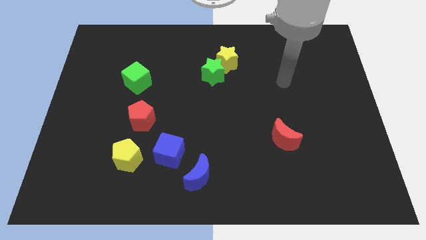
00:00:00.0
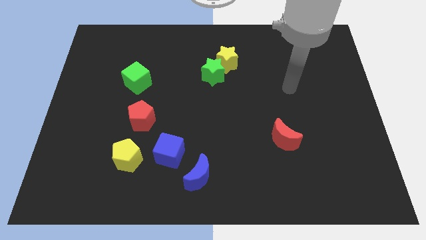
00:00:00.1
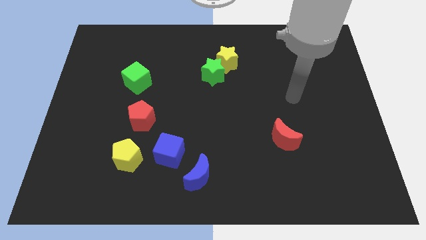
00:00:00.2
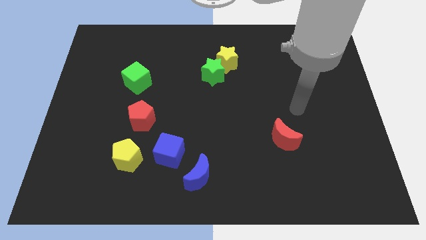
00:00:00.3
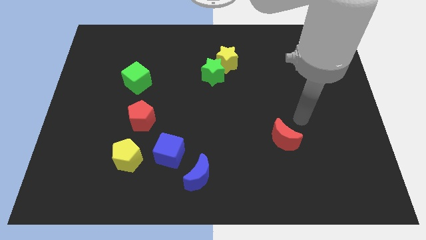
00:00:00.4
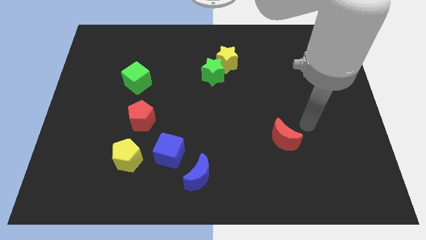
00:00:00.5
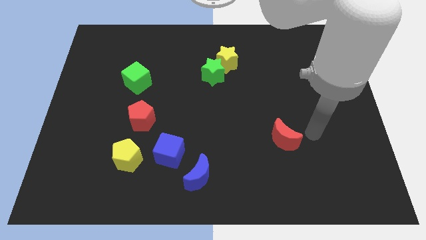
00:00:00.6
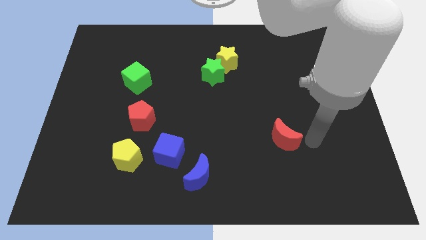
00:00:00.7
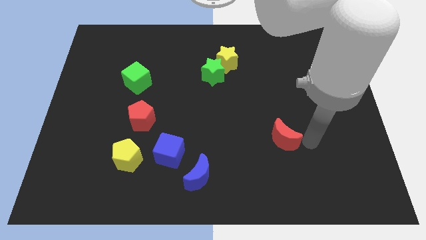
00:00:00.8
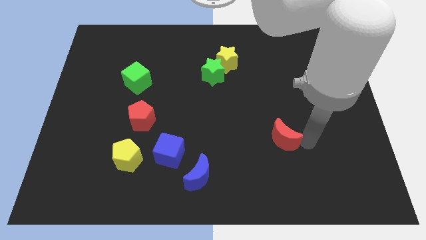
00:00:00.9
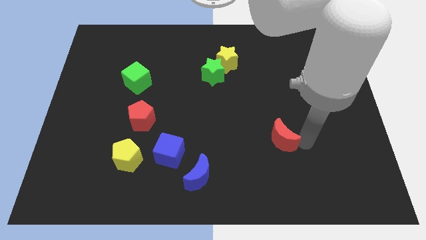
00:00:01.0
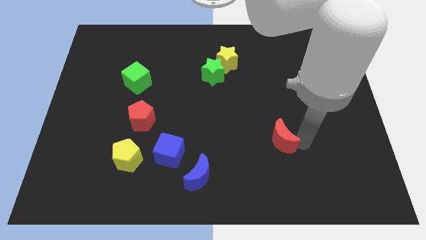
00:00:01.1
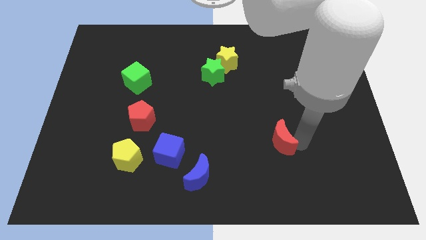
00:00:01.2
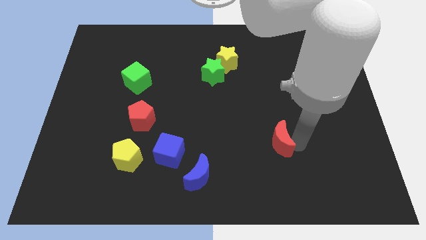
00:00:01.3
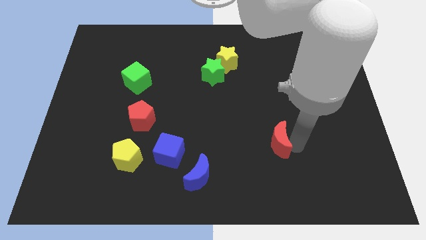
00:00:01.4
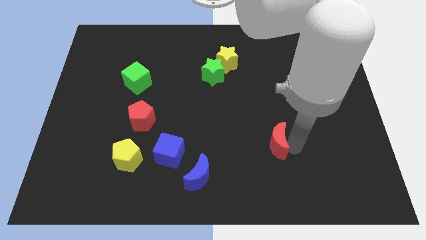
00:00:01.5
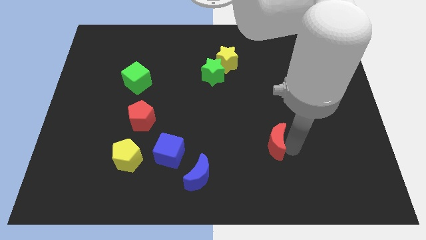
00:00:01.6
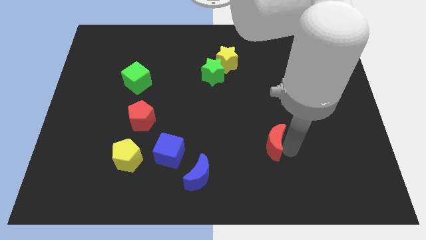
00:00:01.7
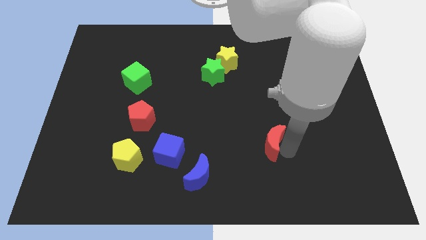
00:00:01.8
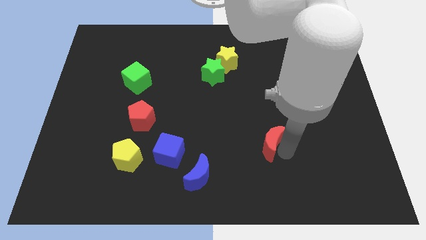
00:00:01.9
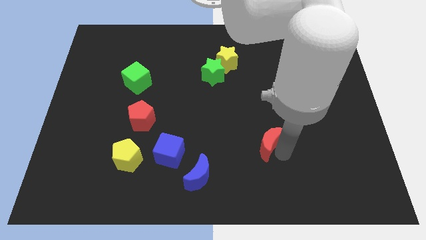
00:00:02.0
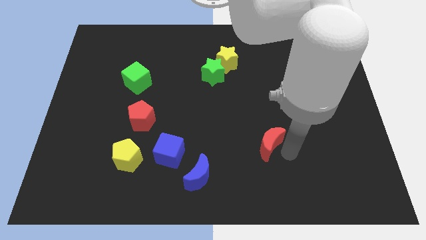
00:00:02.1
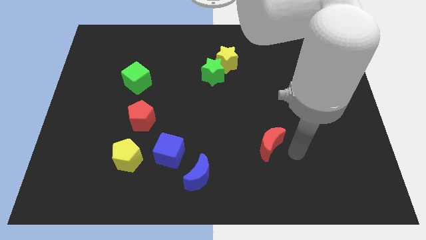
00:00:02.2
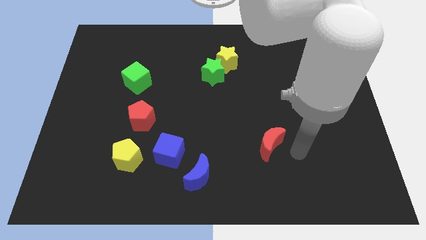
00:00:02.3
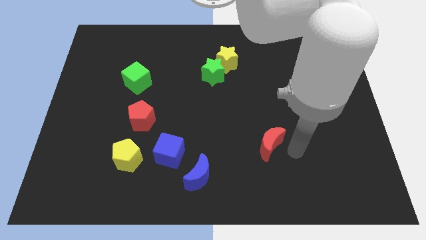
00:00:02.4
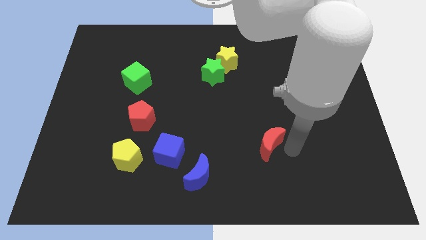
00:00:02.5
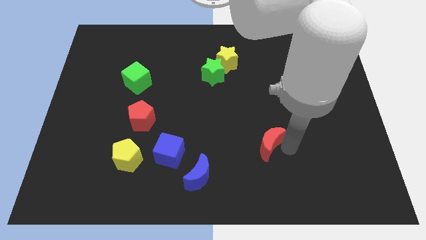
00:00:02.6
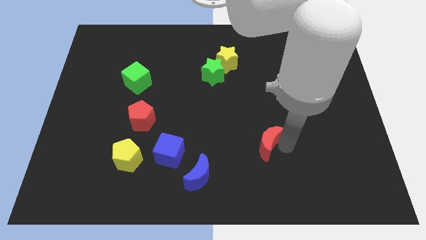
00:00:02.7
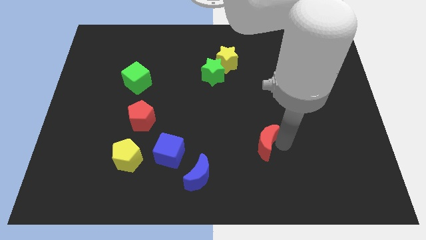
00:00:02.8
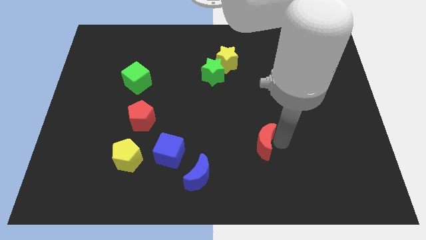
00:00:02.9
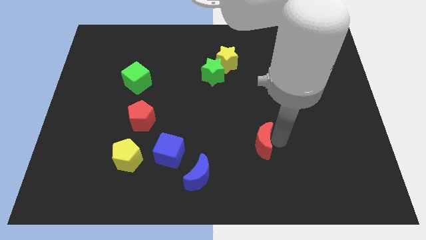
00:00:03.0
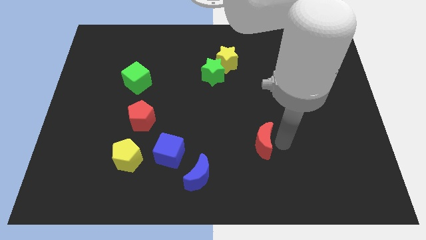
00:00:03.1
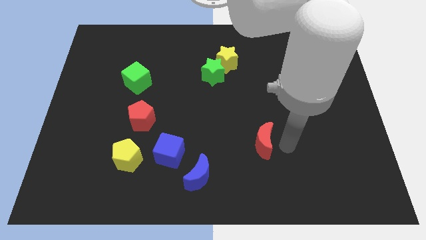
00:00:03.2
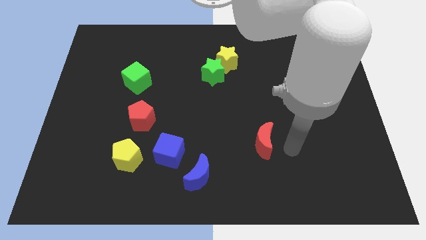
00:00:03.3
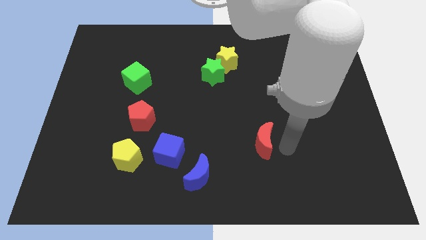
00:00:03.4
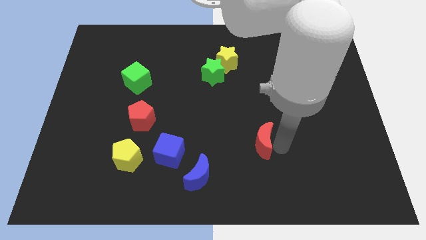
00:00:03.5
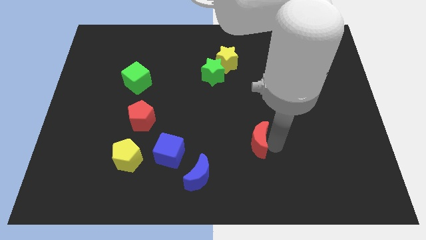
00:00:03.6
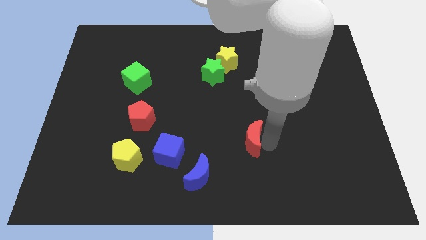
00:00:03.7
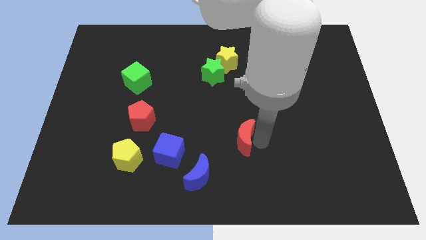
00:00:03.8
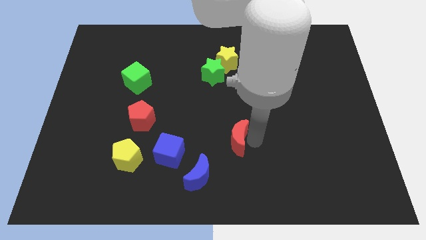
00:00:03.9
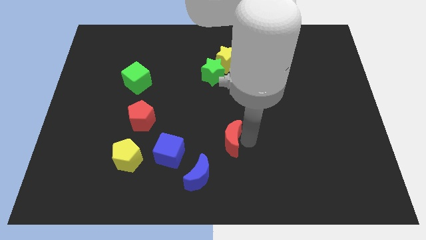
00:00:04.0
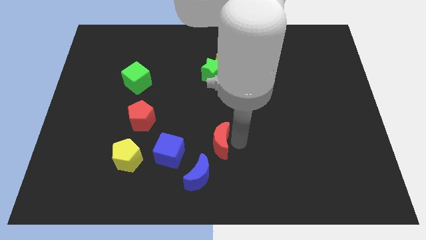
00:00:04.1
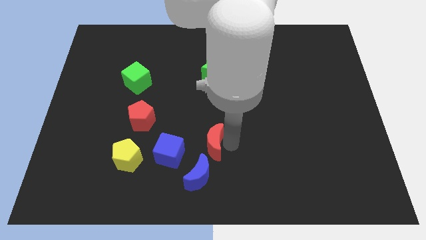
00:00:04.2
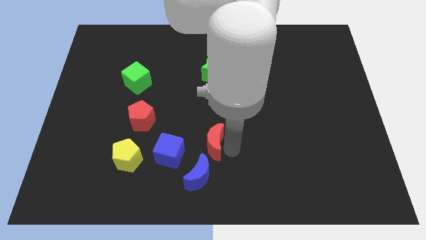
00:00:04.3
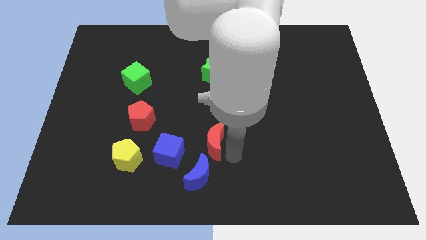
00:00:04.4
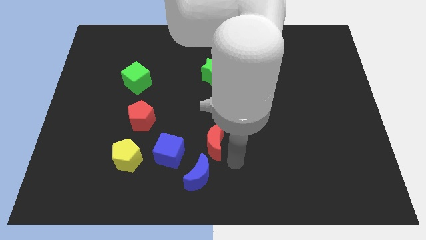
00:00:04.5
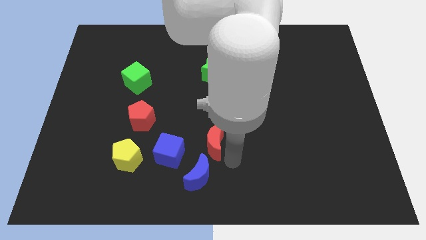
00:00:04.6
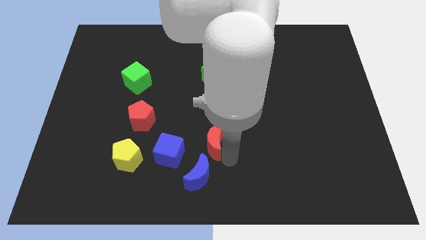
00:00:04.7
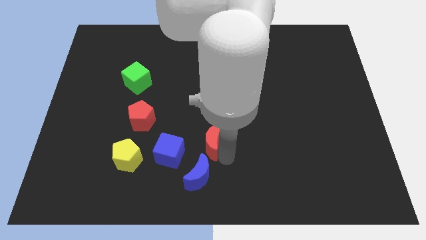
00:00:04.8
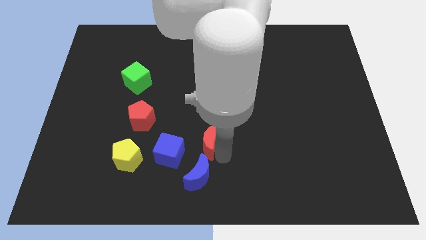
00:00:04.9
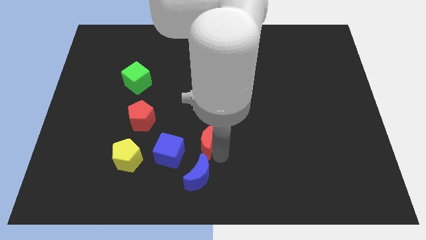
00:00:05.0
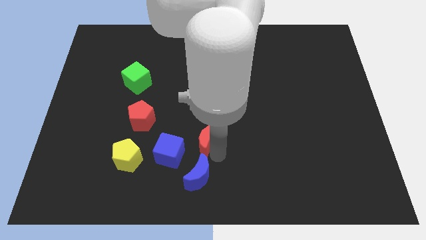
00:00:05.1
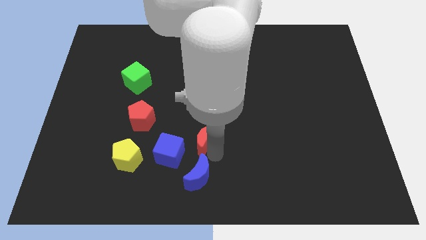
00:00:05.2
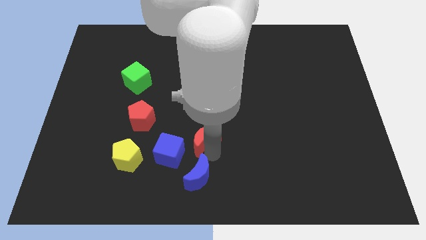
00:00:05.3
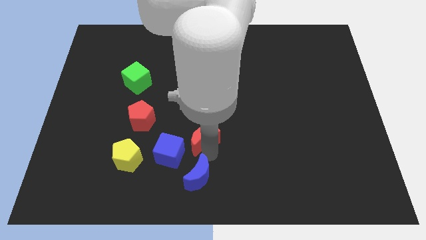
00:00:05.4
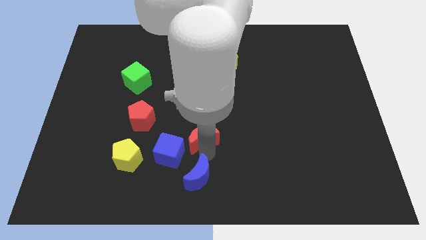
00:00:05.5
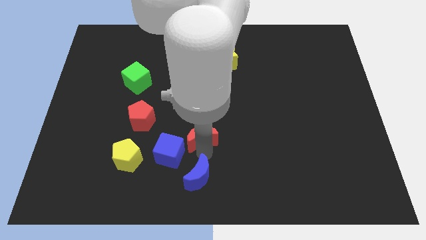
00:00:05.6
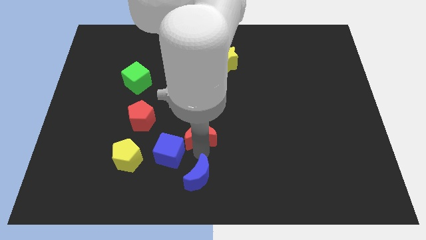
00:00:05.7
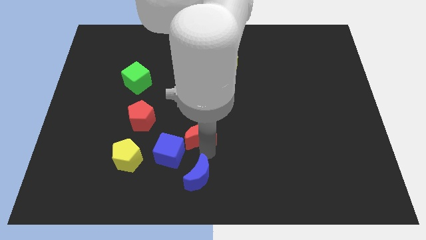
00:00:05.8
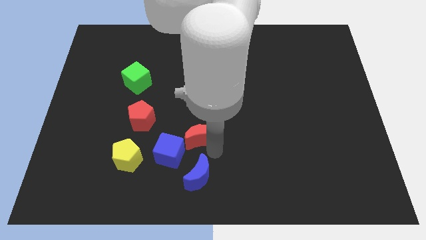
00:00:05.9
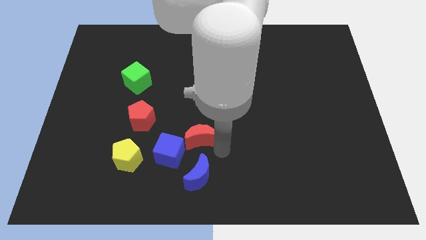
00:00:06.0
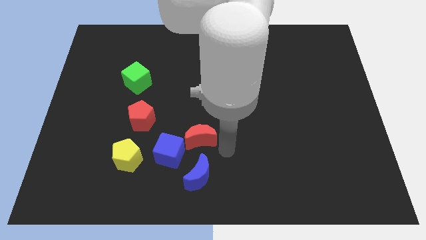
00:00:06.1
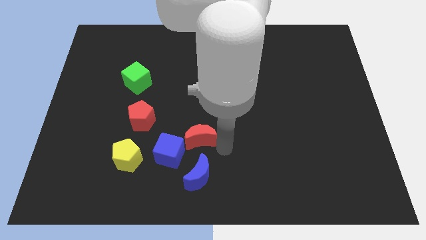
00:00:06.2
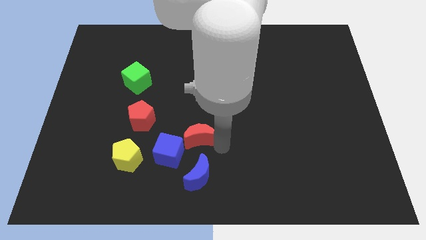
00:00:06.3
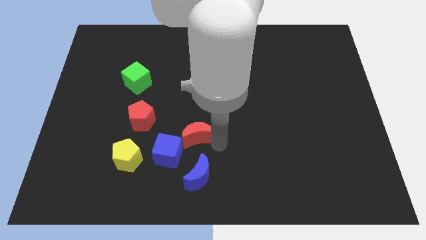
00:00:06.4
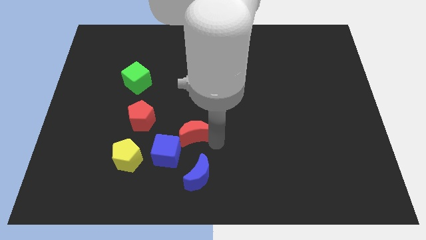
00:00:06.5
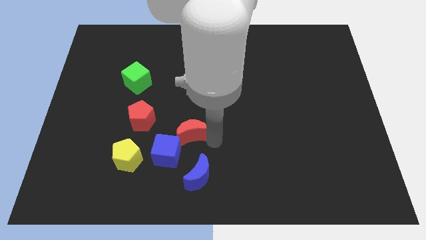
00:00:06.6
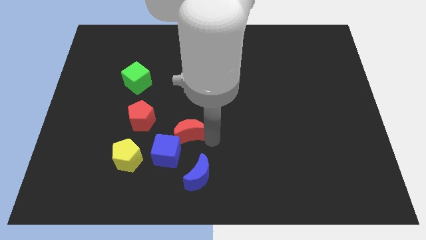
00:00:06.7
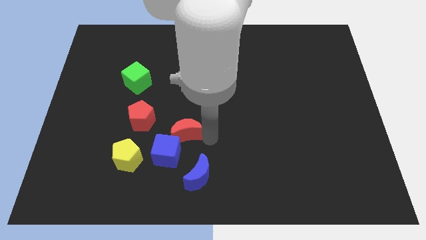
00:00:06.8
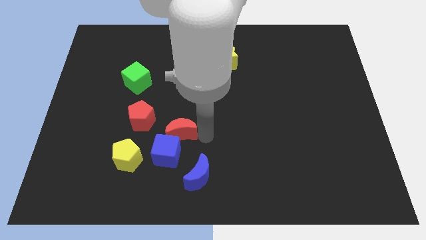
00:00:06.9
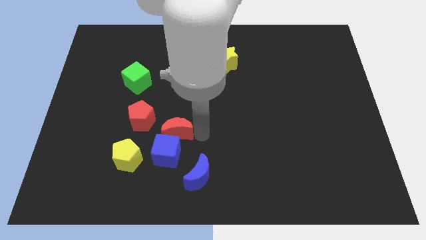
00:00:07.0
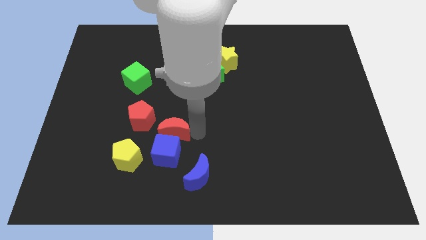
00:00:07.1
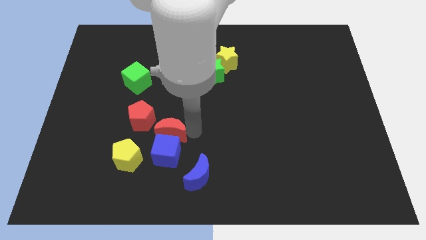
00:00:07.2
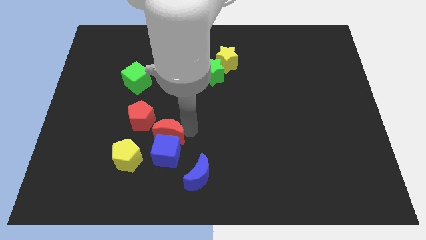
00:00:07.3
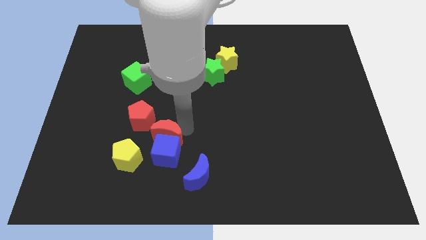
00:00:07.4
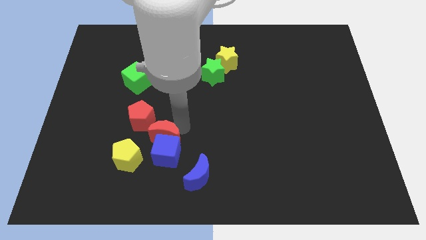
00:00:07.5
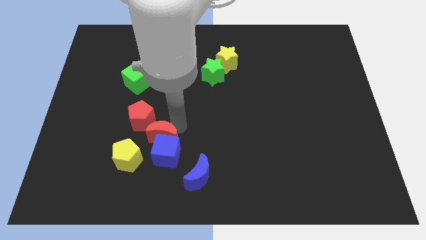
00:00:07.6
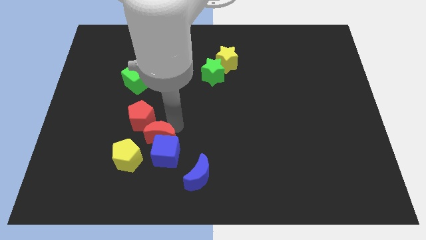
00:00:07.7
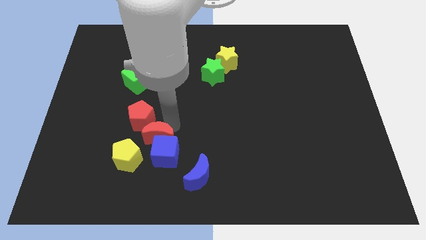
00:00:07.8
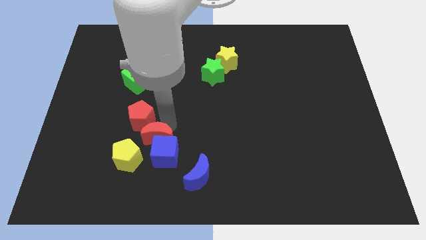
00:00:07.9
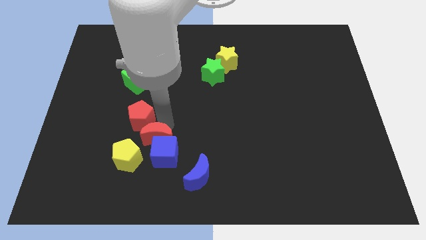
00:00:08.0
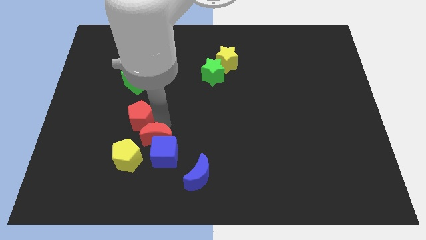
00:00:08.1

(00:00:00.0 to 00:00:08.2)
put the red moon next to the red pentagon
